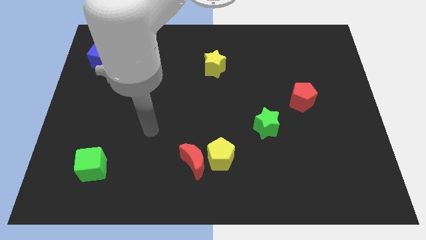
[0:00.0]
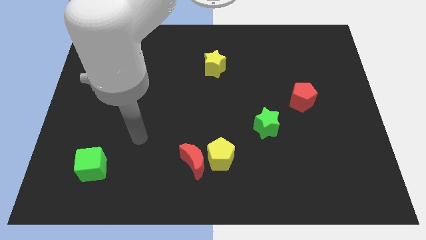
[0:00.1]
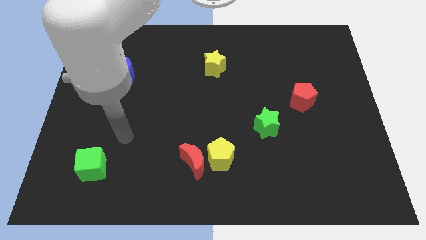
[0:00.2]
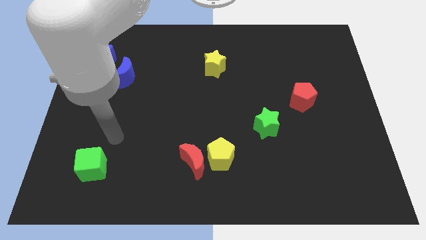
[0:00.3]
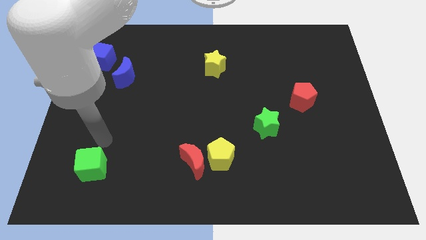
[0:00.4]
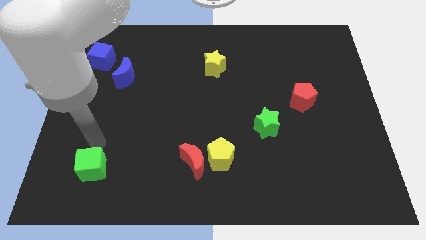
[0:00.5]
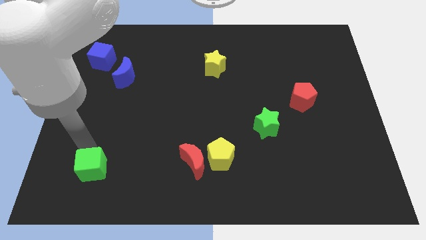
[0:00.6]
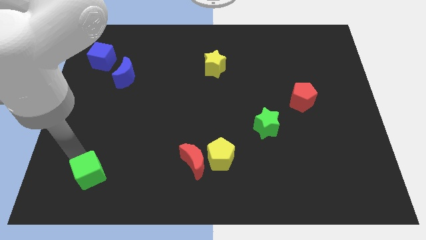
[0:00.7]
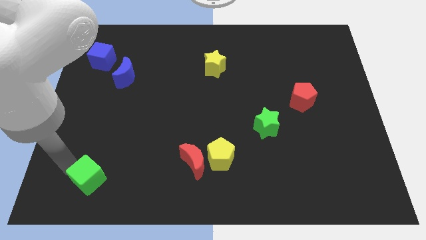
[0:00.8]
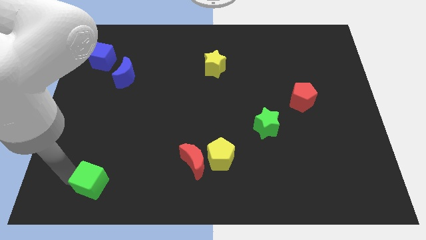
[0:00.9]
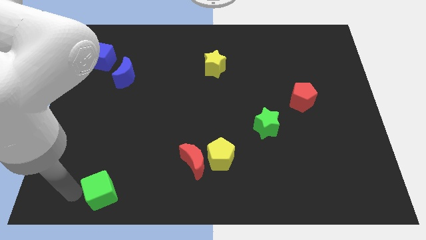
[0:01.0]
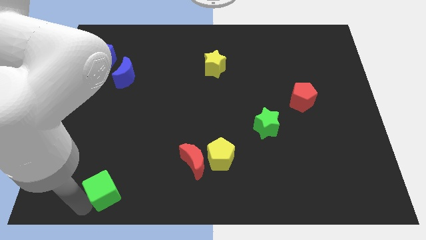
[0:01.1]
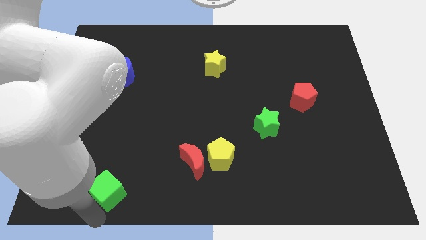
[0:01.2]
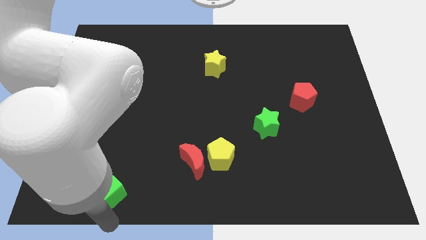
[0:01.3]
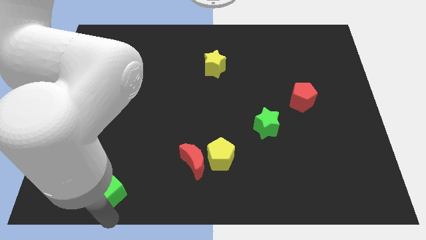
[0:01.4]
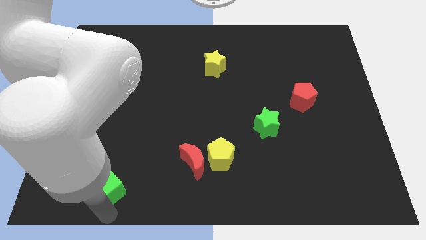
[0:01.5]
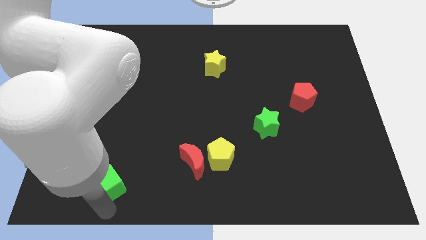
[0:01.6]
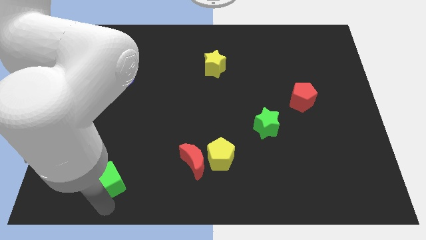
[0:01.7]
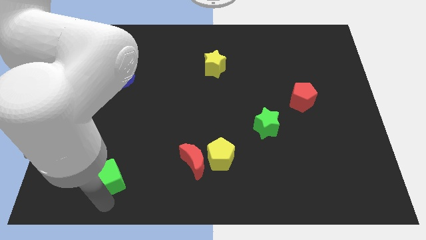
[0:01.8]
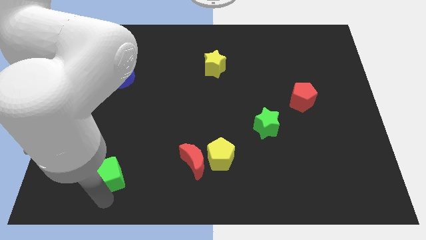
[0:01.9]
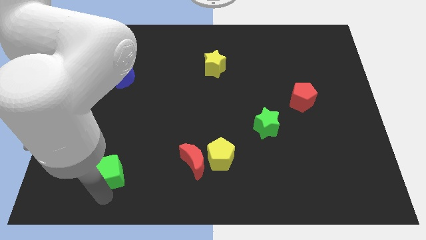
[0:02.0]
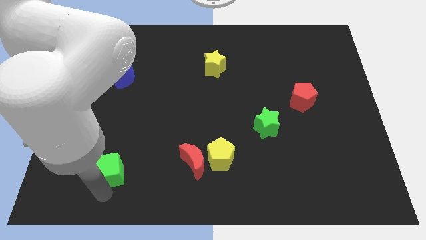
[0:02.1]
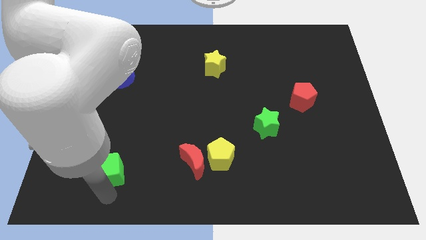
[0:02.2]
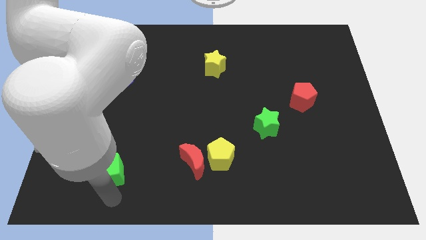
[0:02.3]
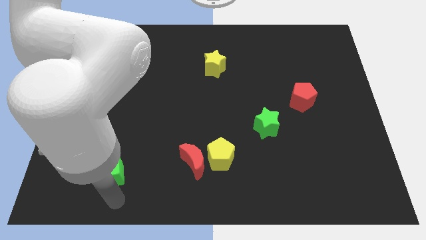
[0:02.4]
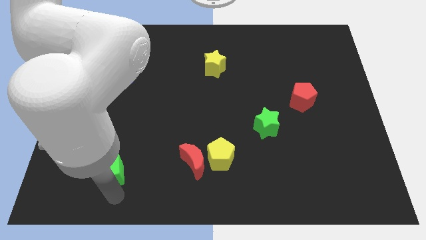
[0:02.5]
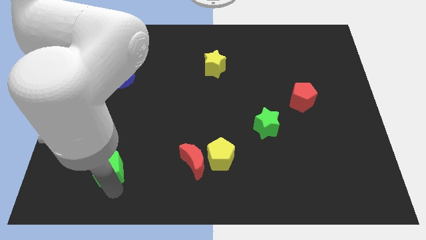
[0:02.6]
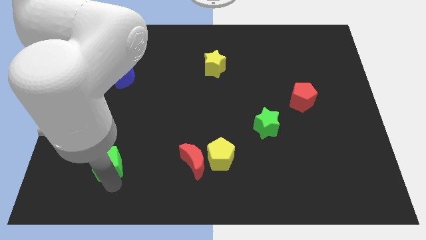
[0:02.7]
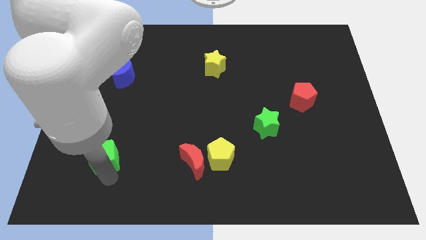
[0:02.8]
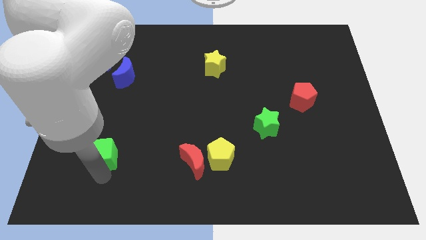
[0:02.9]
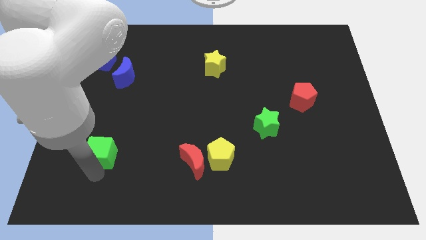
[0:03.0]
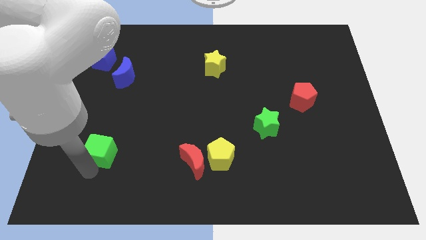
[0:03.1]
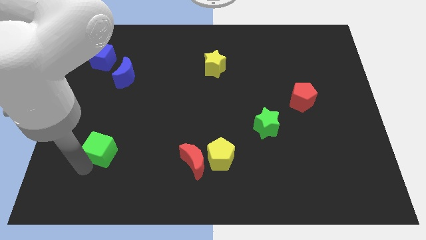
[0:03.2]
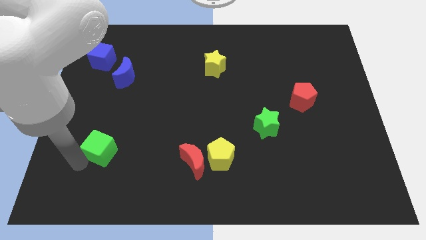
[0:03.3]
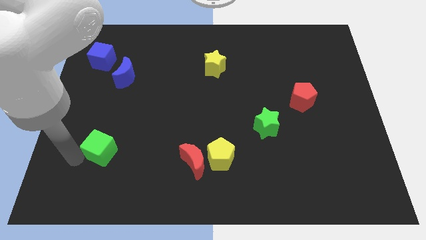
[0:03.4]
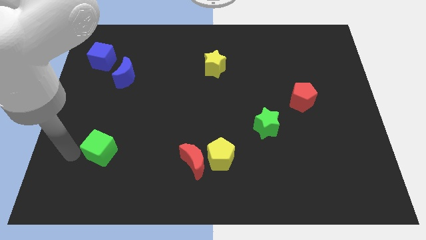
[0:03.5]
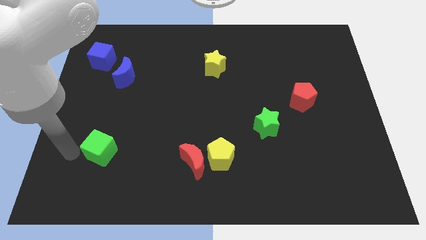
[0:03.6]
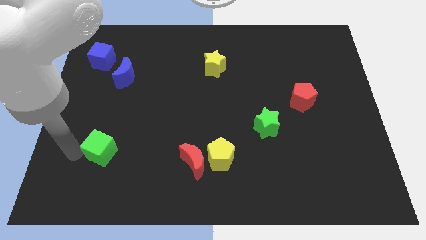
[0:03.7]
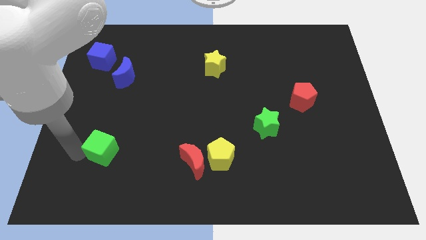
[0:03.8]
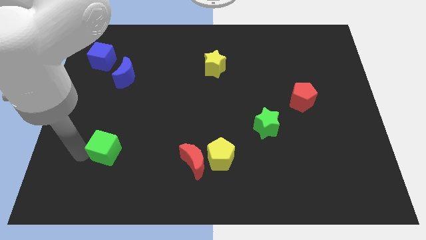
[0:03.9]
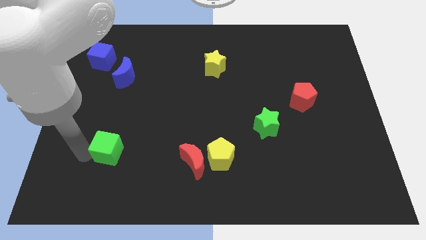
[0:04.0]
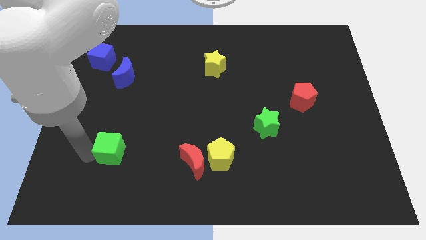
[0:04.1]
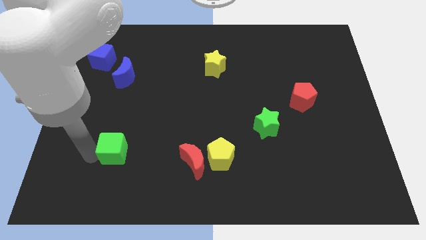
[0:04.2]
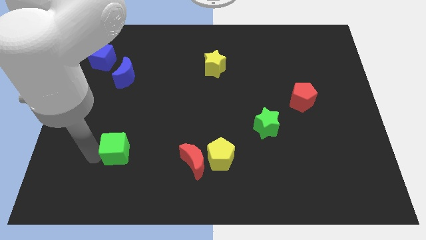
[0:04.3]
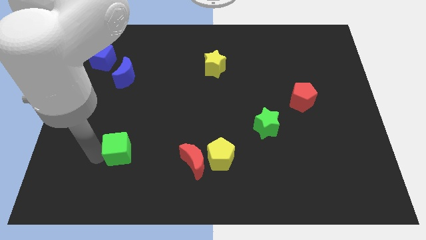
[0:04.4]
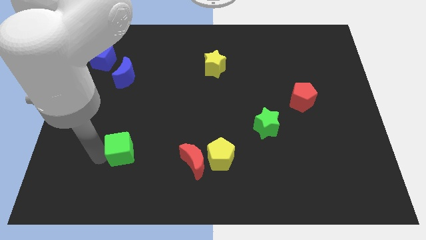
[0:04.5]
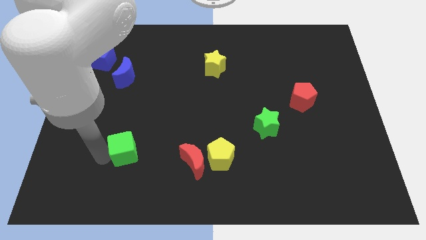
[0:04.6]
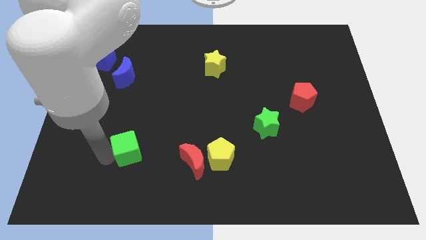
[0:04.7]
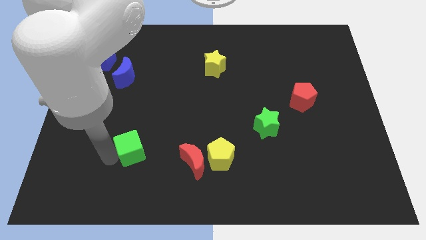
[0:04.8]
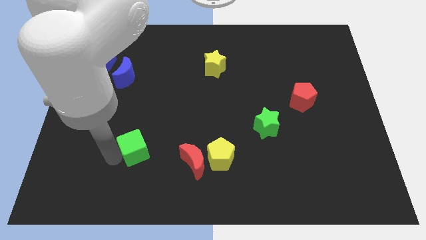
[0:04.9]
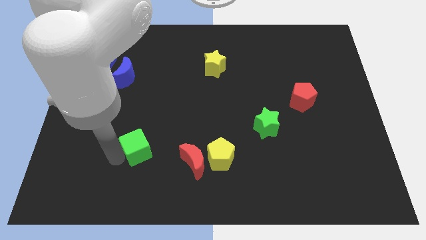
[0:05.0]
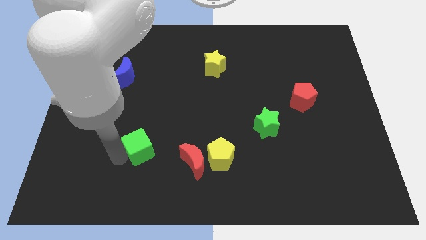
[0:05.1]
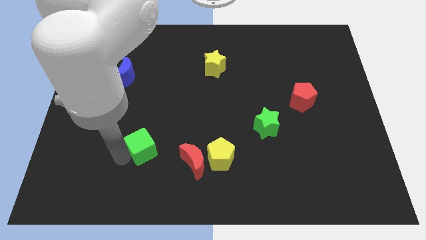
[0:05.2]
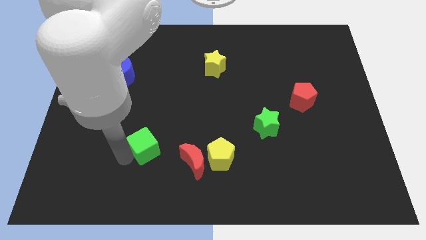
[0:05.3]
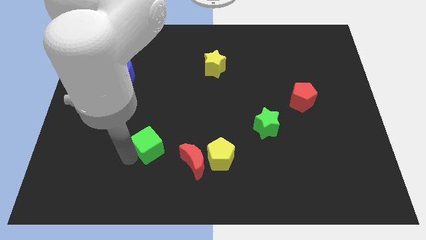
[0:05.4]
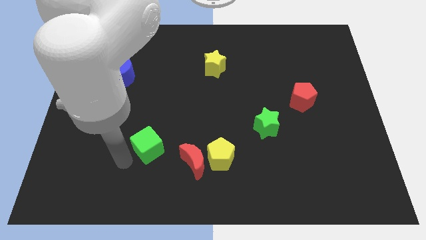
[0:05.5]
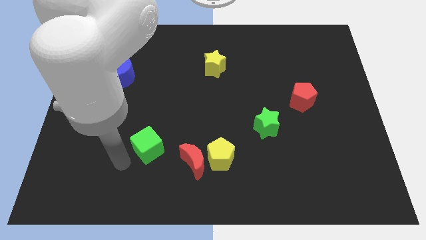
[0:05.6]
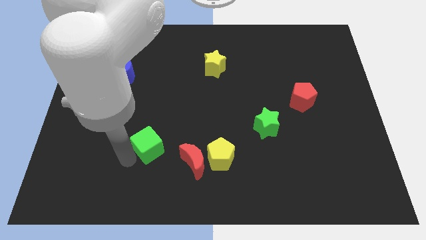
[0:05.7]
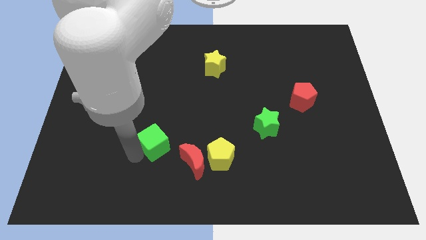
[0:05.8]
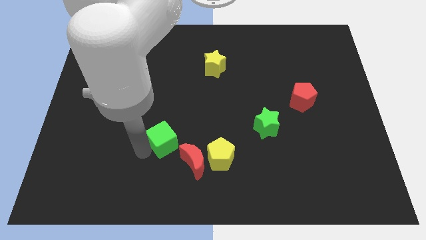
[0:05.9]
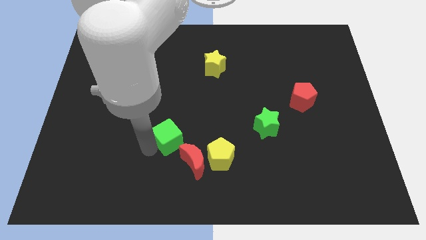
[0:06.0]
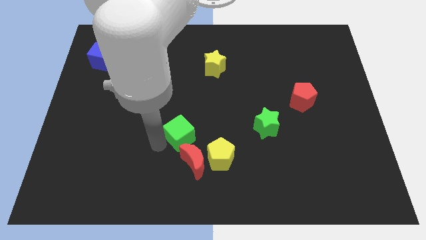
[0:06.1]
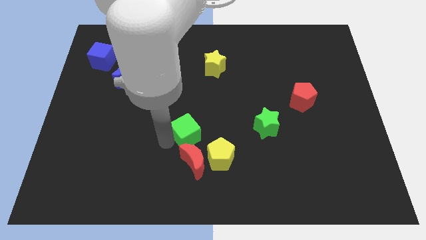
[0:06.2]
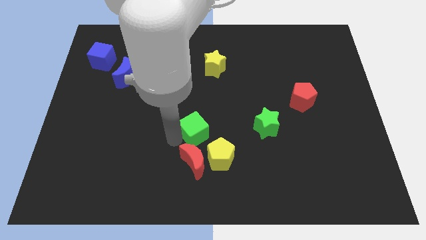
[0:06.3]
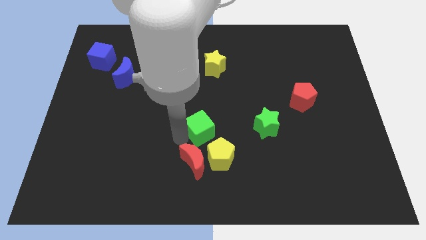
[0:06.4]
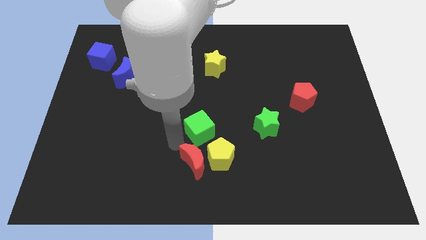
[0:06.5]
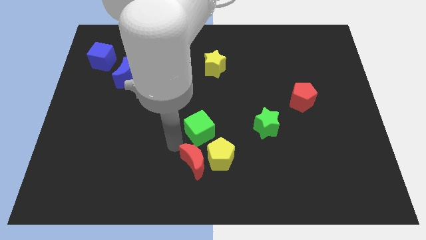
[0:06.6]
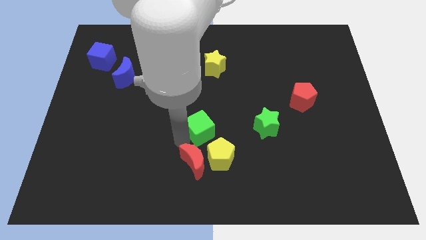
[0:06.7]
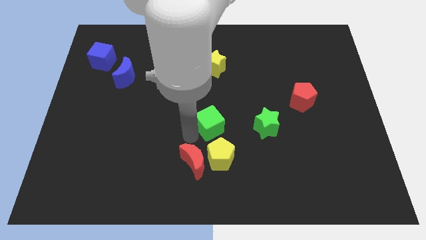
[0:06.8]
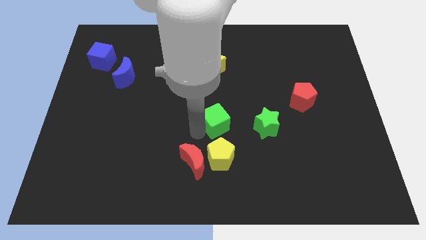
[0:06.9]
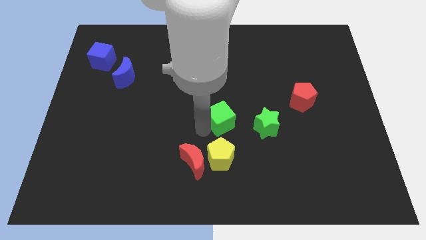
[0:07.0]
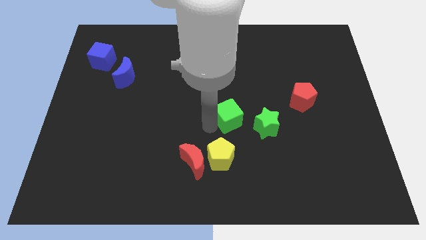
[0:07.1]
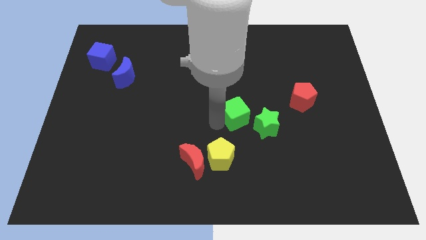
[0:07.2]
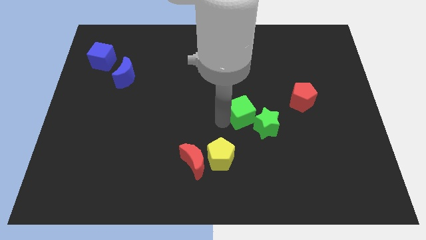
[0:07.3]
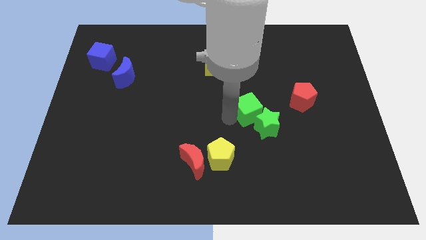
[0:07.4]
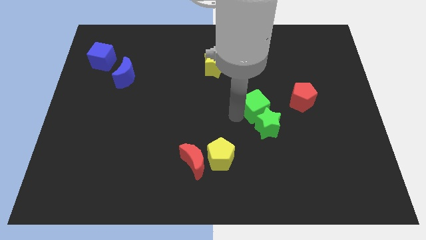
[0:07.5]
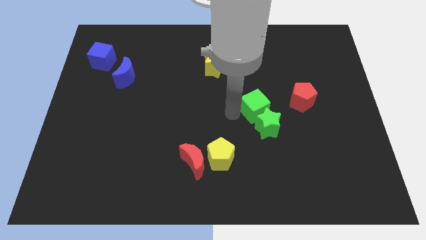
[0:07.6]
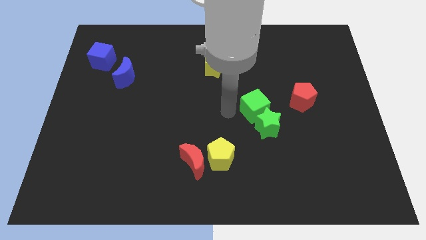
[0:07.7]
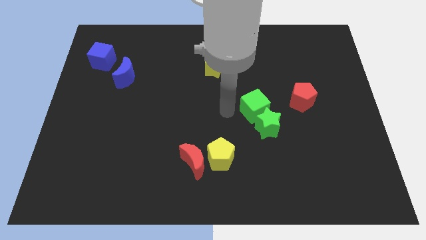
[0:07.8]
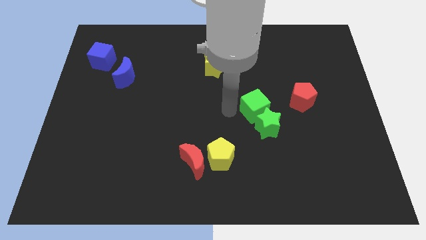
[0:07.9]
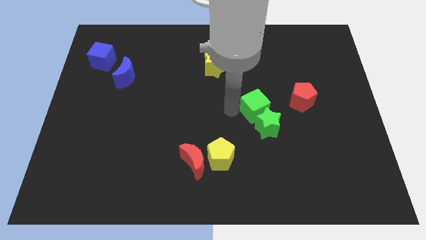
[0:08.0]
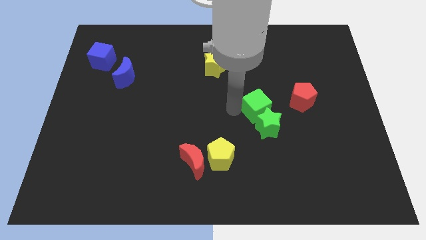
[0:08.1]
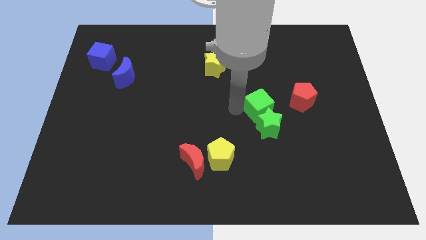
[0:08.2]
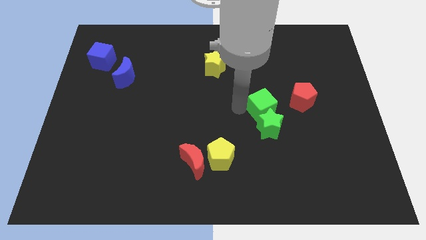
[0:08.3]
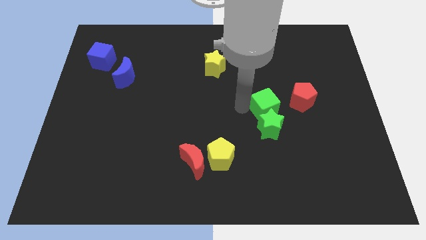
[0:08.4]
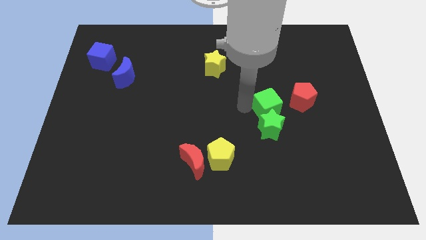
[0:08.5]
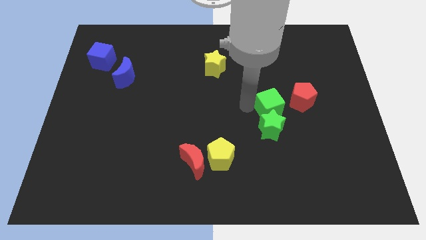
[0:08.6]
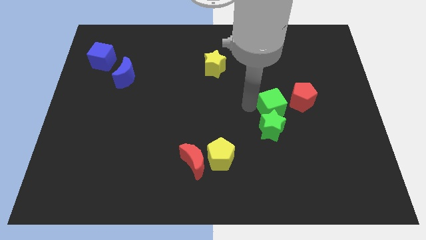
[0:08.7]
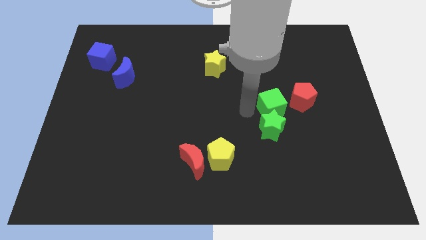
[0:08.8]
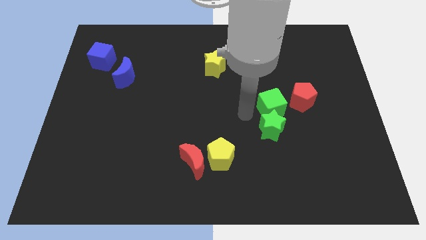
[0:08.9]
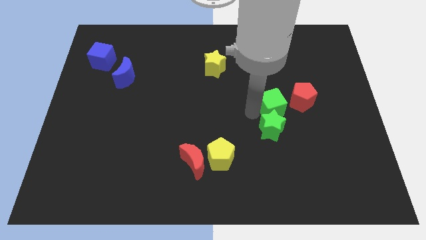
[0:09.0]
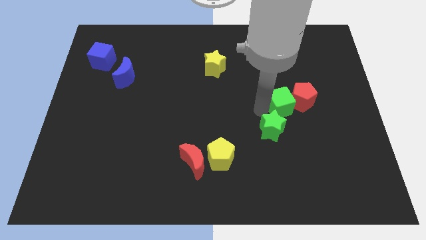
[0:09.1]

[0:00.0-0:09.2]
put the green cube towards the red pentagon
